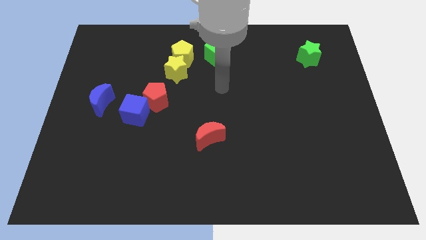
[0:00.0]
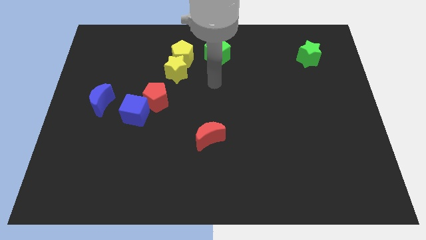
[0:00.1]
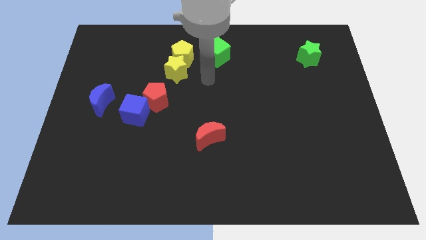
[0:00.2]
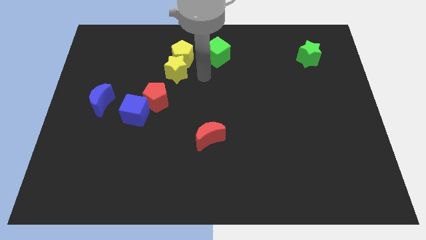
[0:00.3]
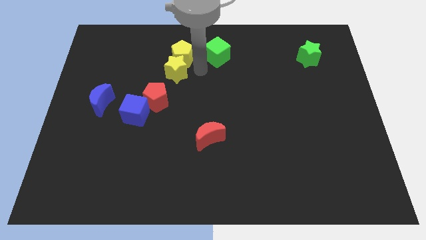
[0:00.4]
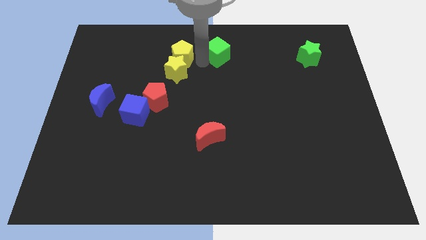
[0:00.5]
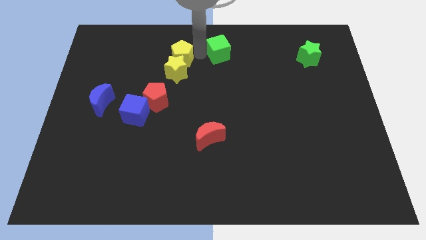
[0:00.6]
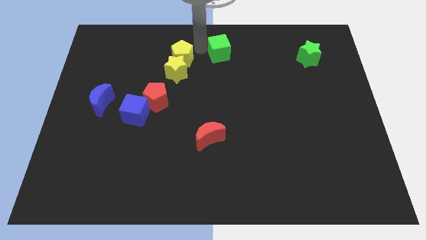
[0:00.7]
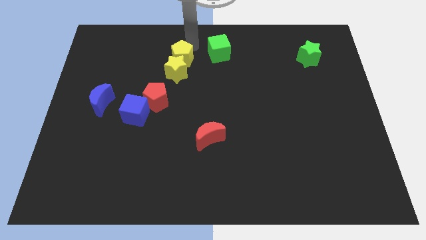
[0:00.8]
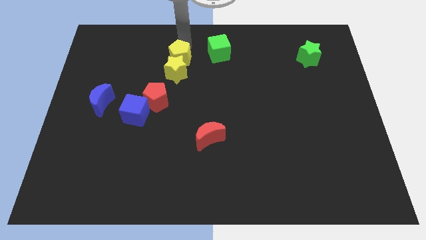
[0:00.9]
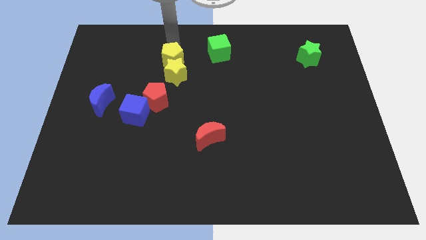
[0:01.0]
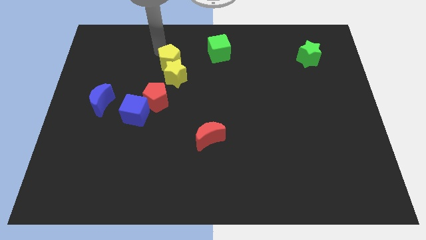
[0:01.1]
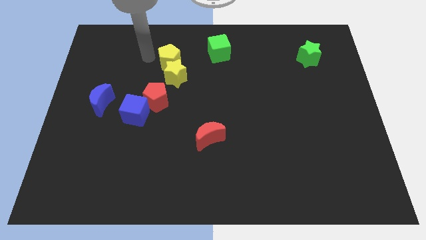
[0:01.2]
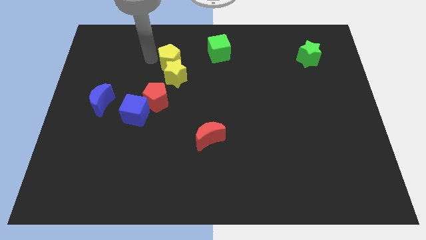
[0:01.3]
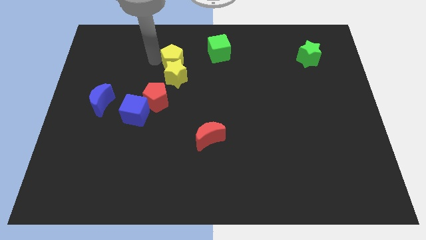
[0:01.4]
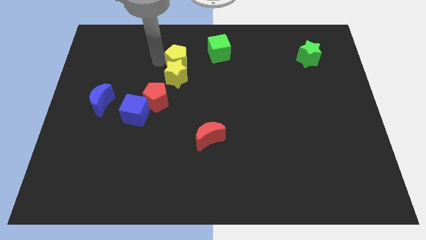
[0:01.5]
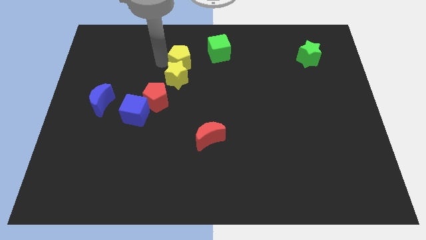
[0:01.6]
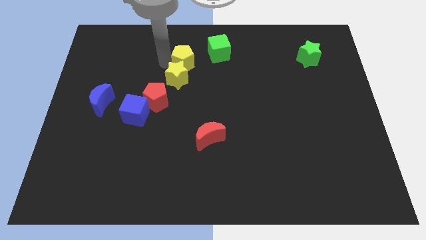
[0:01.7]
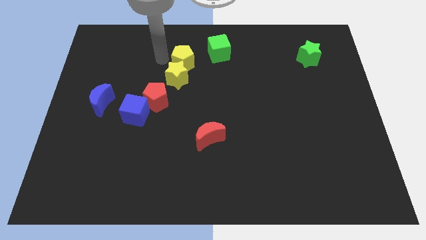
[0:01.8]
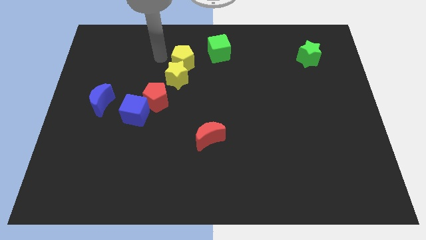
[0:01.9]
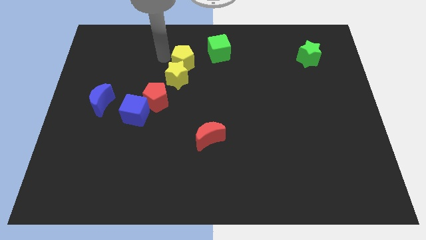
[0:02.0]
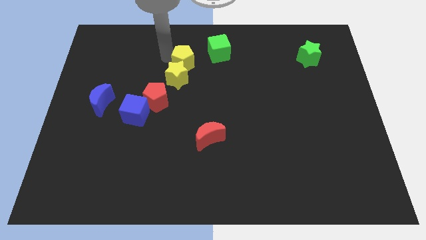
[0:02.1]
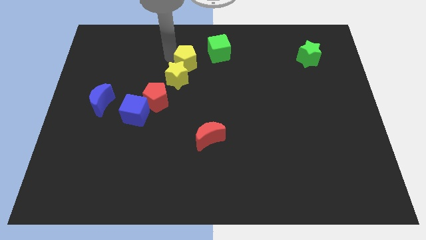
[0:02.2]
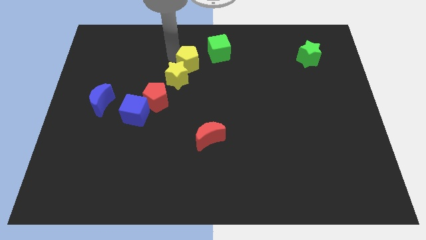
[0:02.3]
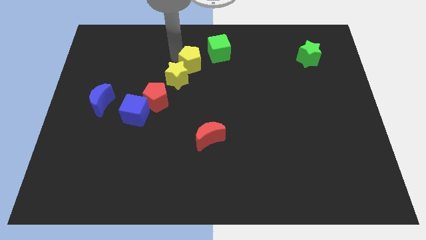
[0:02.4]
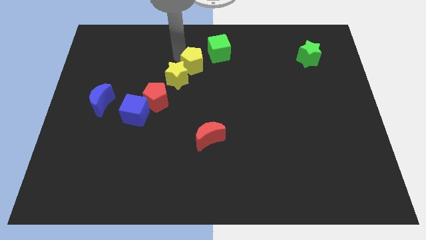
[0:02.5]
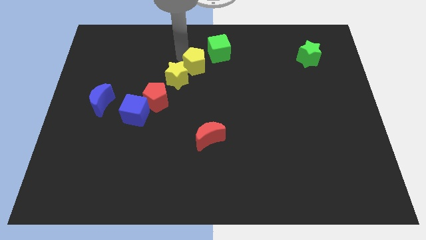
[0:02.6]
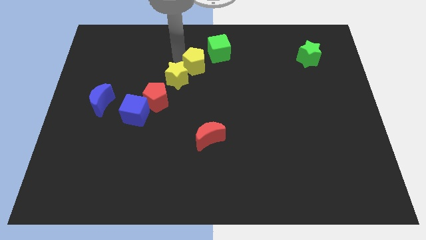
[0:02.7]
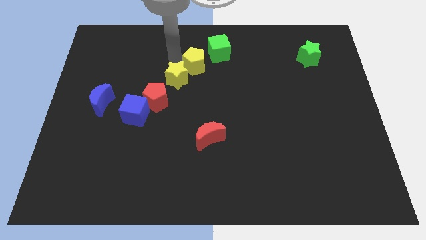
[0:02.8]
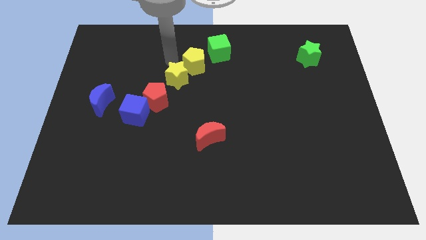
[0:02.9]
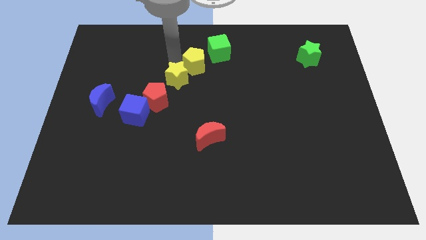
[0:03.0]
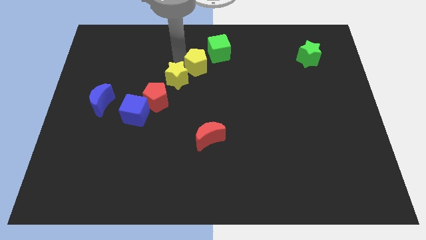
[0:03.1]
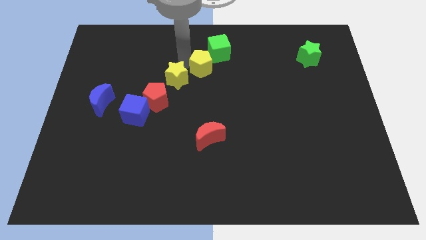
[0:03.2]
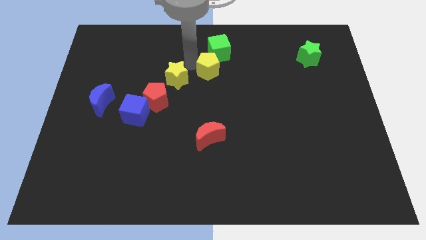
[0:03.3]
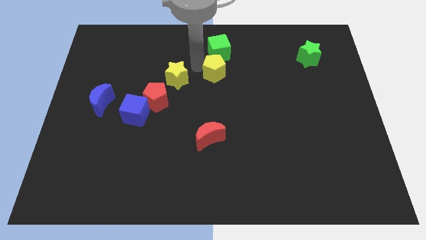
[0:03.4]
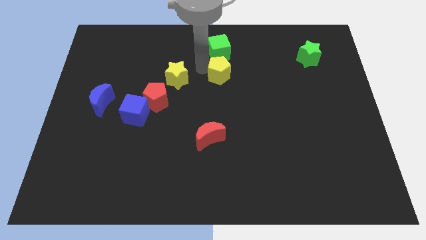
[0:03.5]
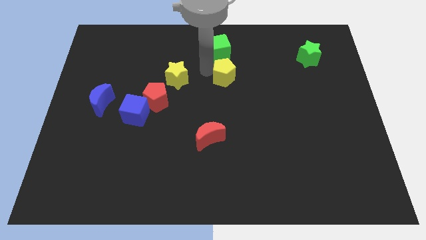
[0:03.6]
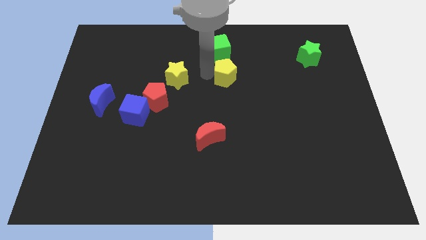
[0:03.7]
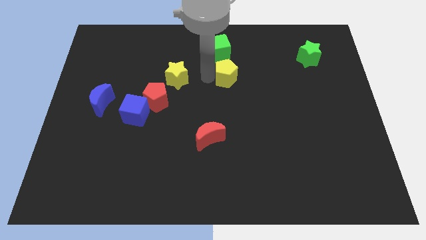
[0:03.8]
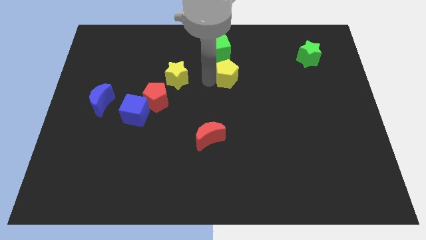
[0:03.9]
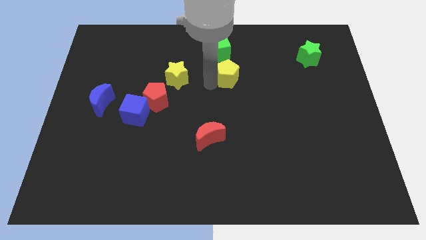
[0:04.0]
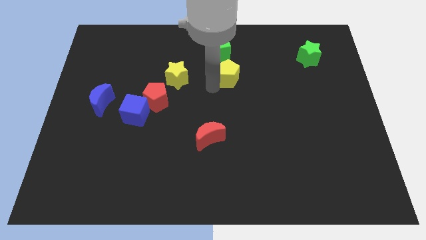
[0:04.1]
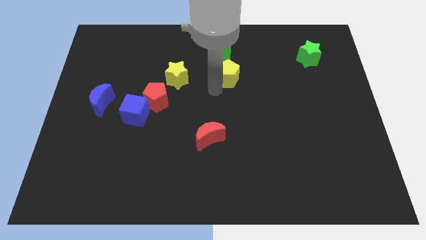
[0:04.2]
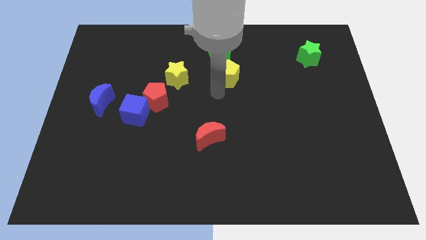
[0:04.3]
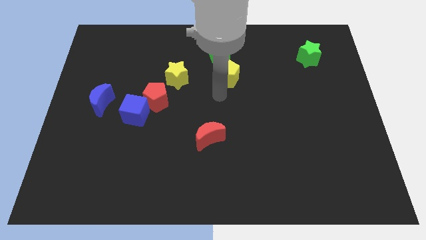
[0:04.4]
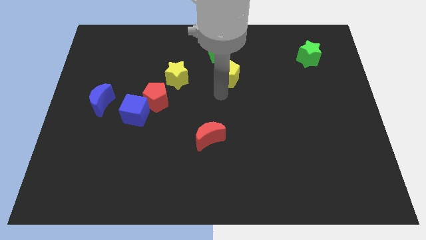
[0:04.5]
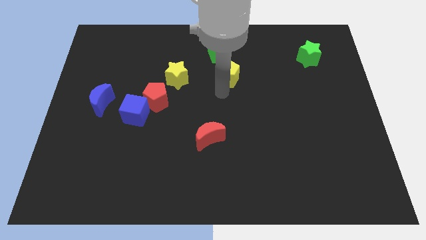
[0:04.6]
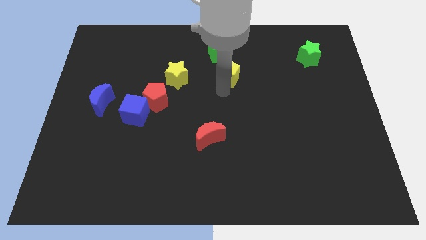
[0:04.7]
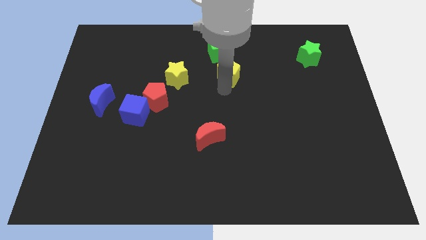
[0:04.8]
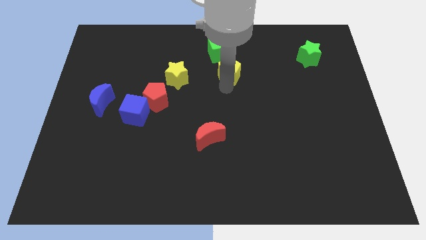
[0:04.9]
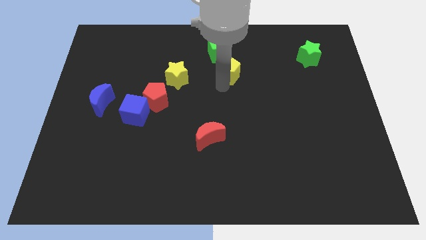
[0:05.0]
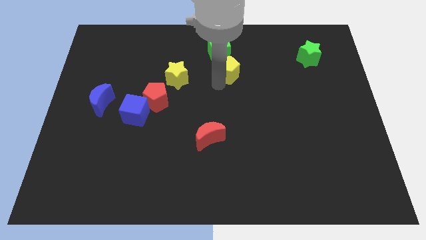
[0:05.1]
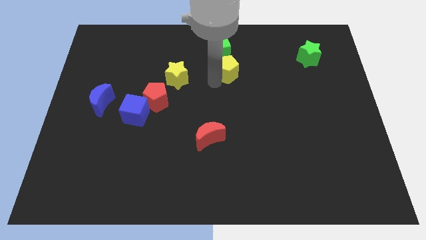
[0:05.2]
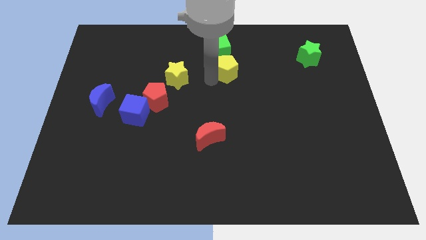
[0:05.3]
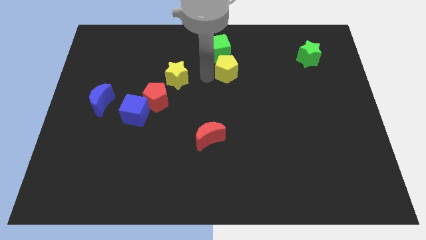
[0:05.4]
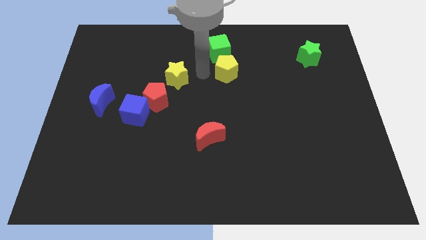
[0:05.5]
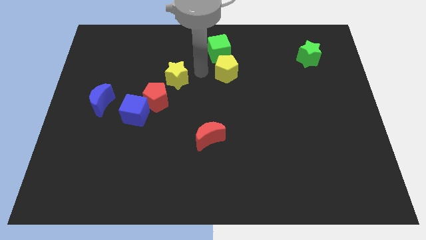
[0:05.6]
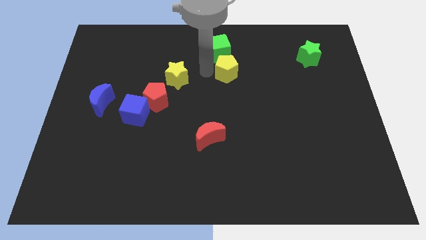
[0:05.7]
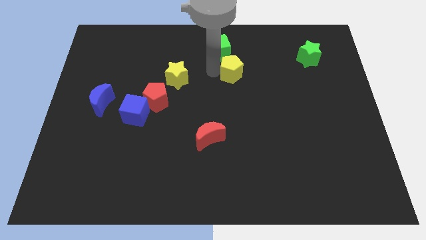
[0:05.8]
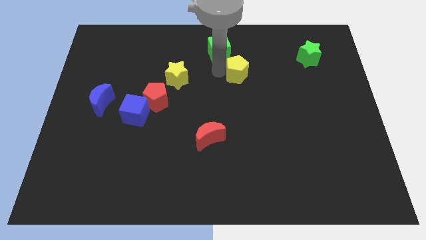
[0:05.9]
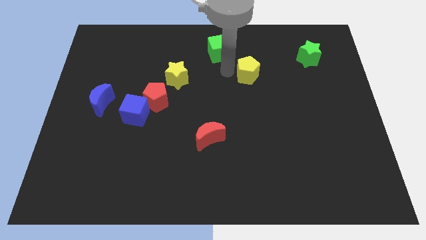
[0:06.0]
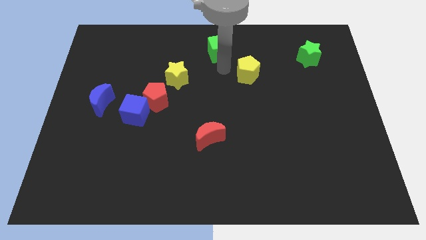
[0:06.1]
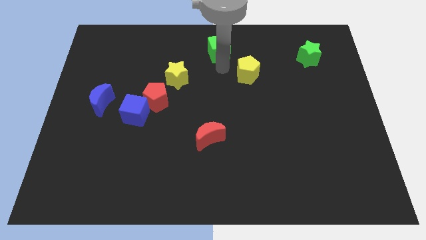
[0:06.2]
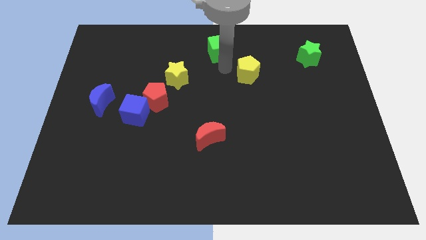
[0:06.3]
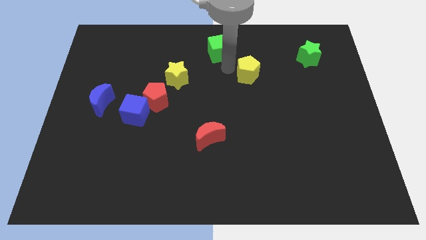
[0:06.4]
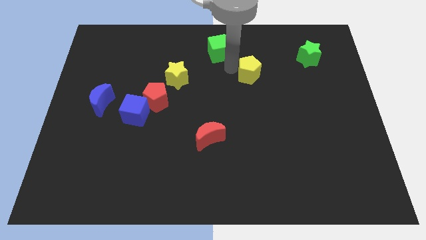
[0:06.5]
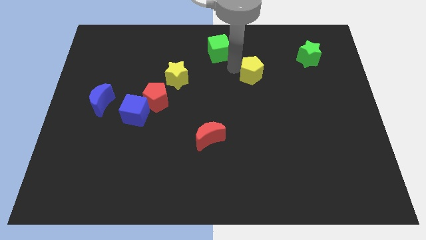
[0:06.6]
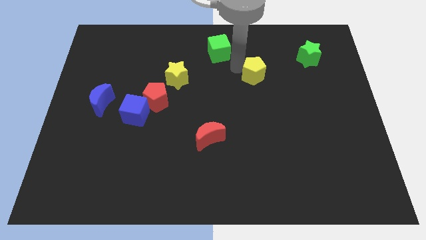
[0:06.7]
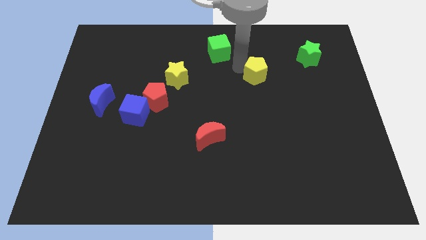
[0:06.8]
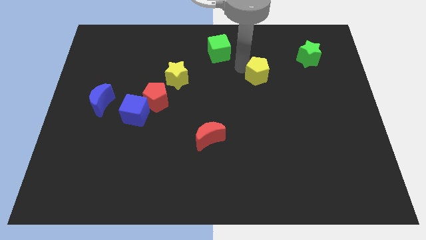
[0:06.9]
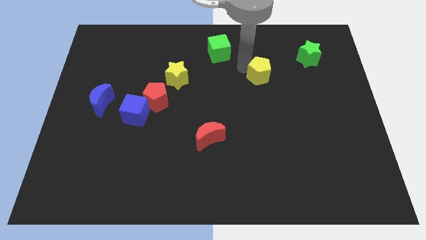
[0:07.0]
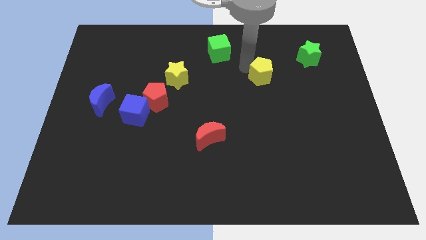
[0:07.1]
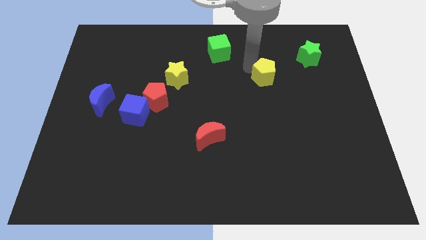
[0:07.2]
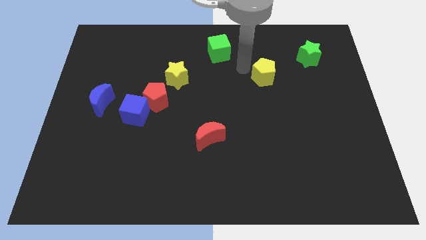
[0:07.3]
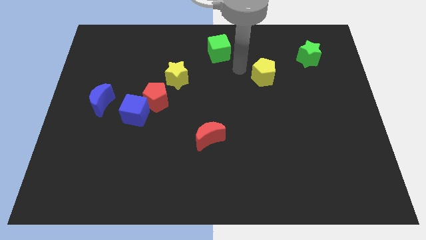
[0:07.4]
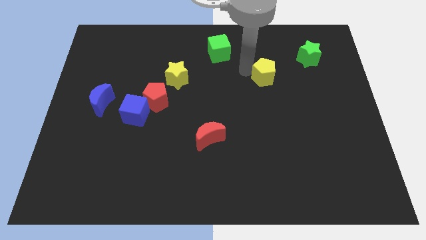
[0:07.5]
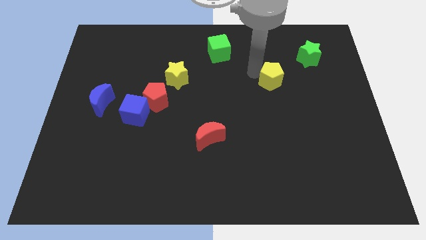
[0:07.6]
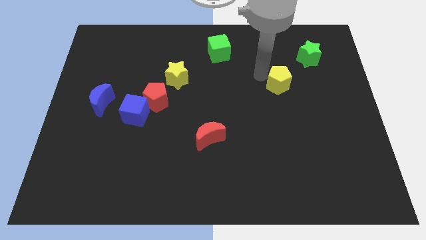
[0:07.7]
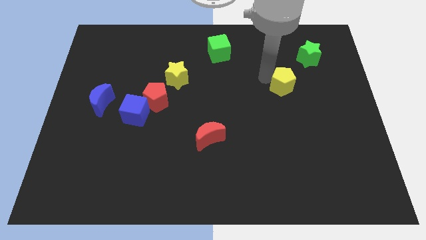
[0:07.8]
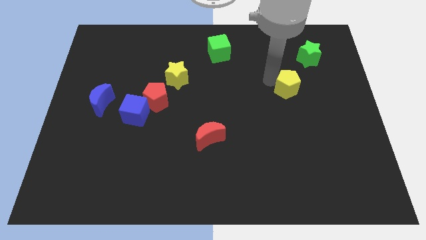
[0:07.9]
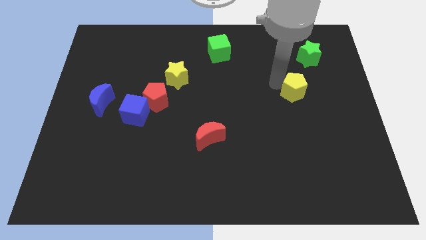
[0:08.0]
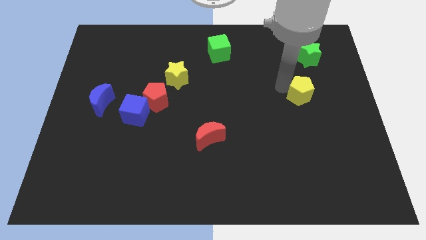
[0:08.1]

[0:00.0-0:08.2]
put the yellow pentagon to the bottom of the green star
